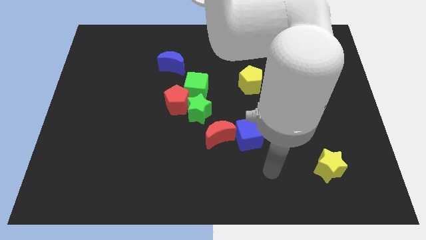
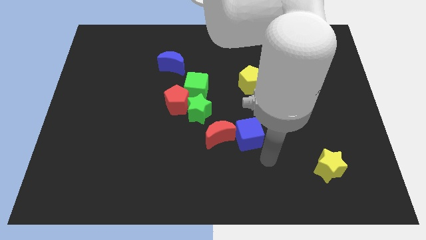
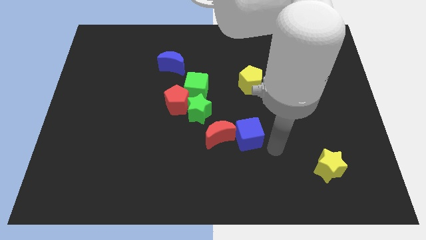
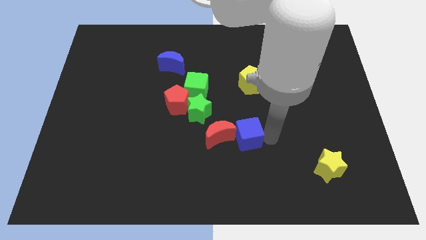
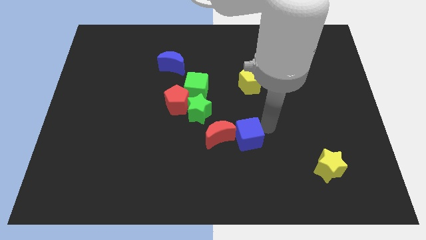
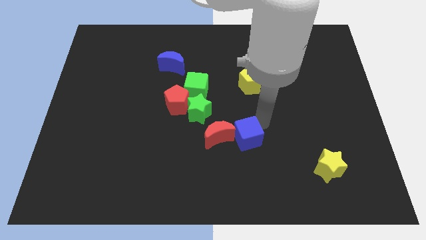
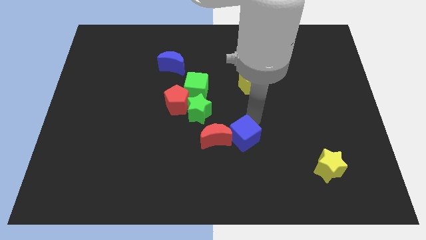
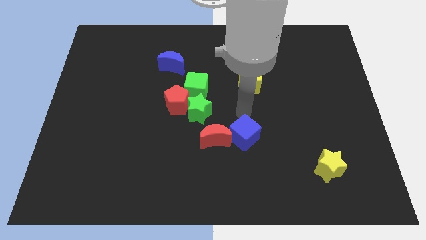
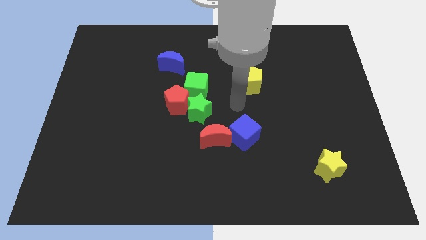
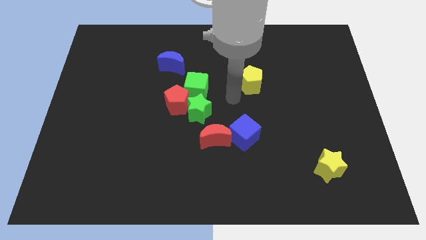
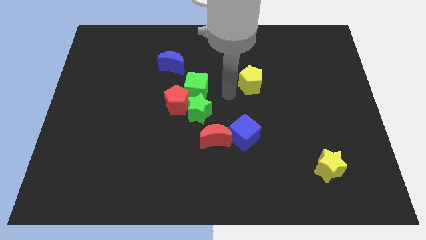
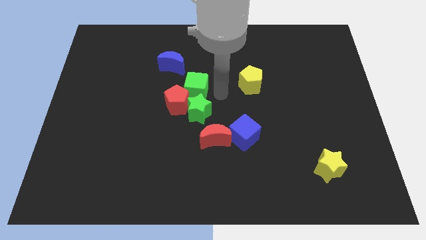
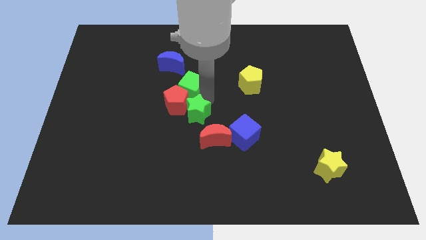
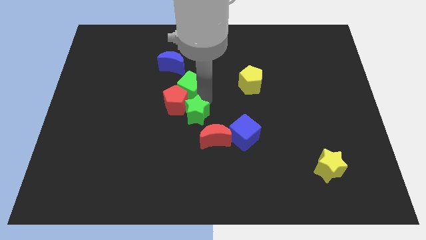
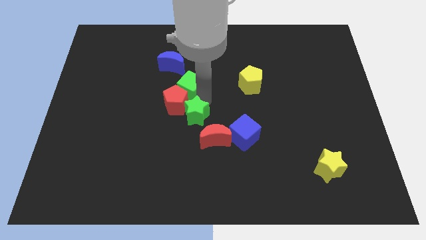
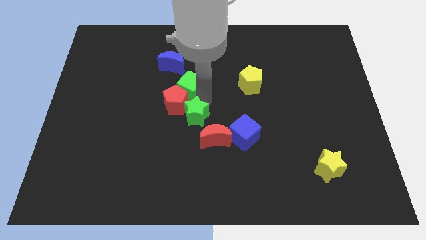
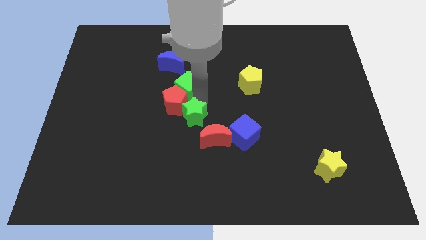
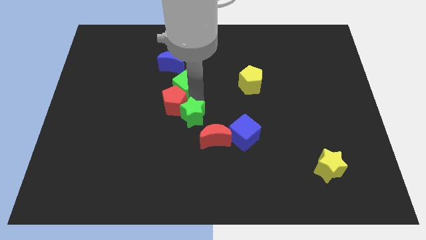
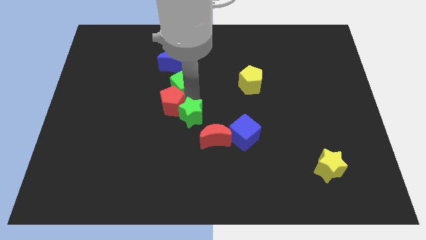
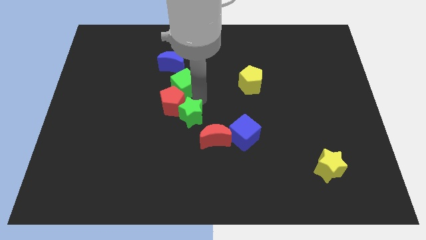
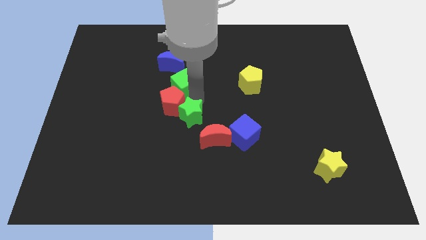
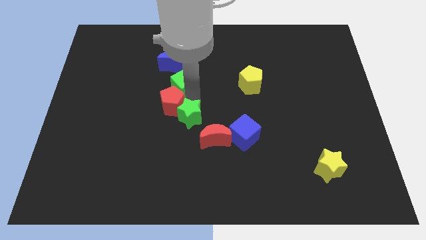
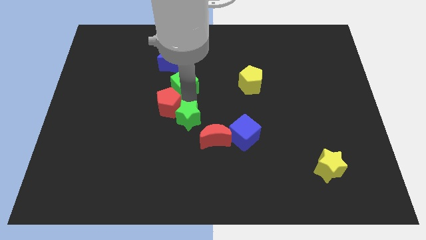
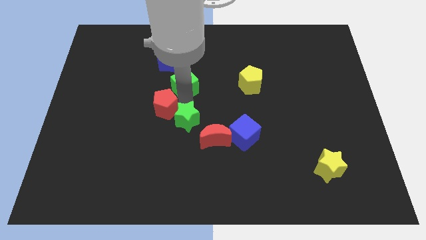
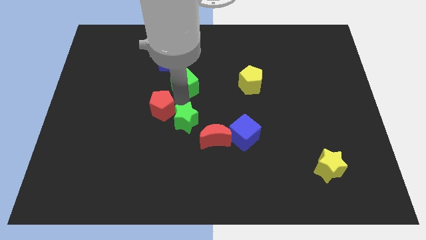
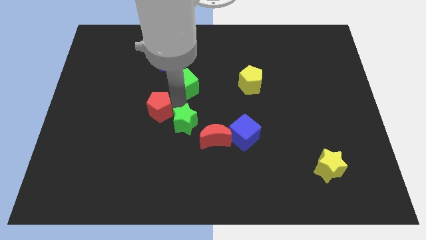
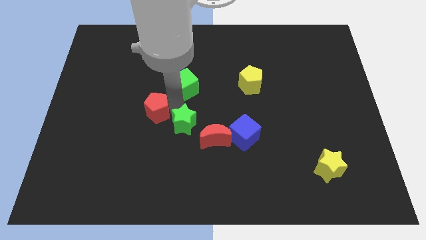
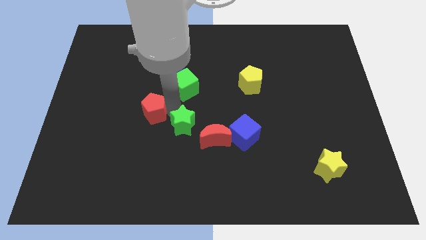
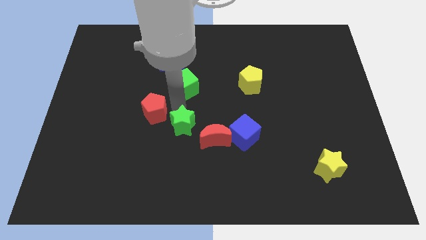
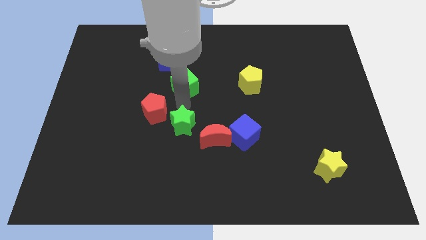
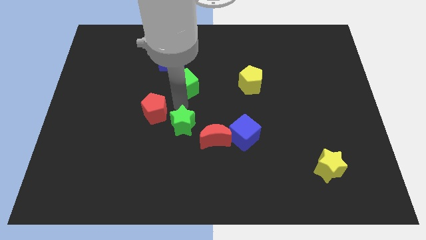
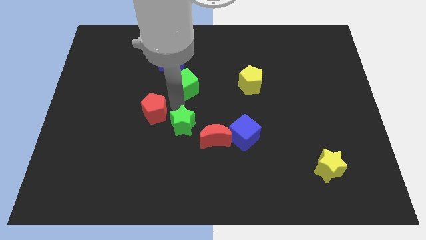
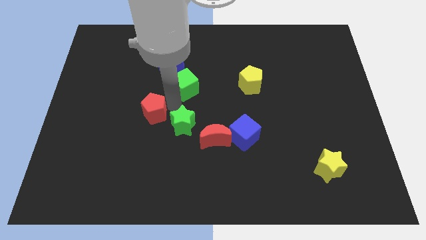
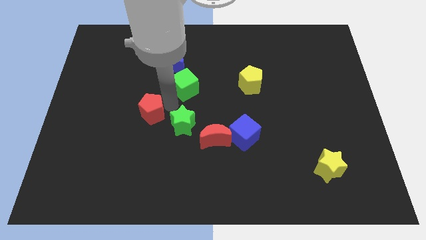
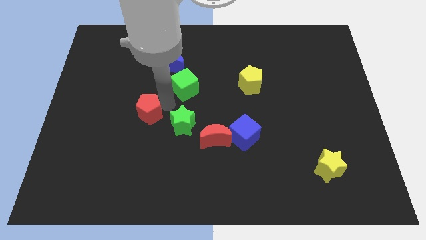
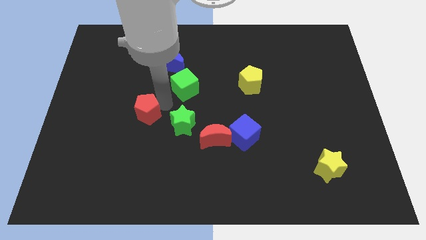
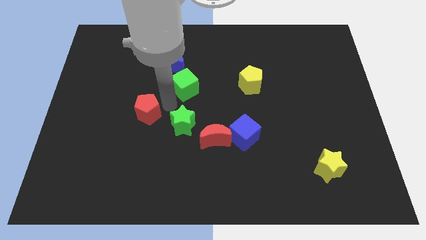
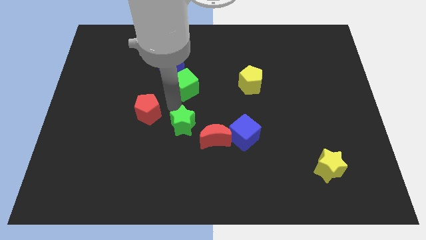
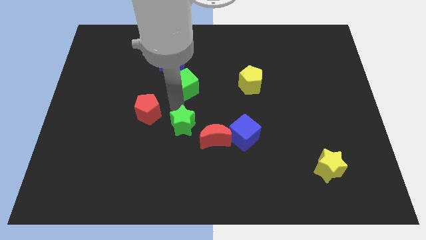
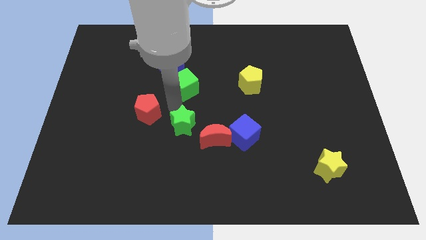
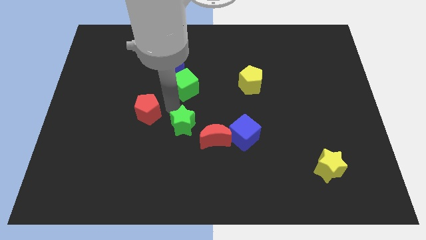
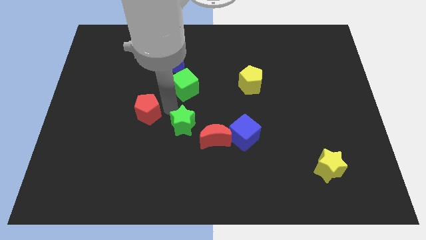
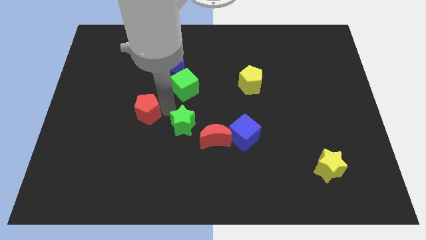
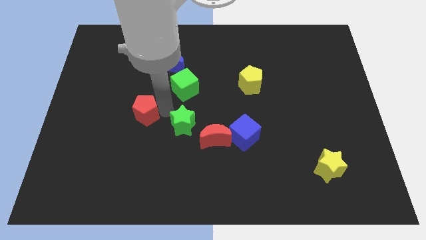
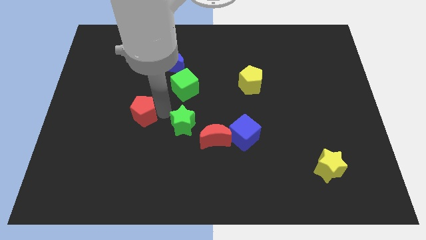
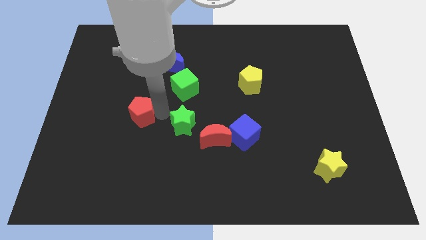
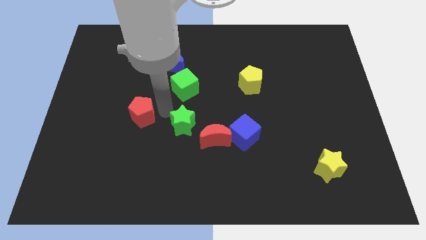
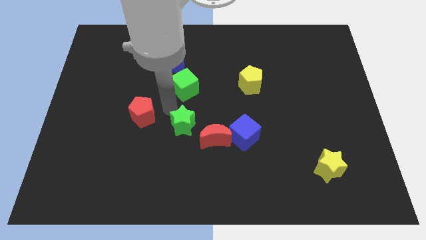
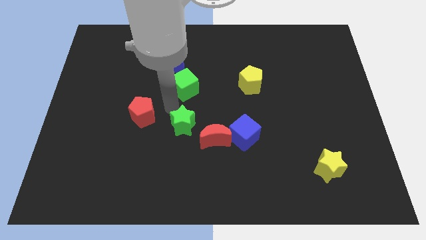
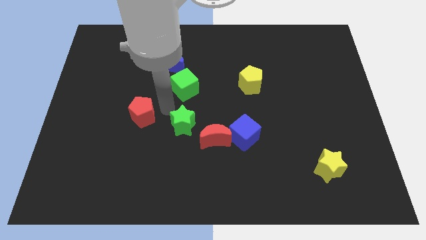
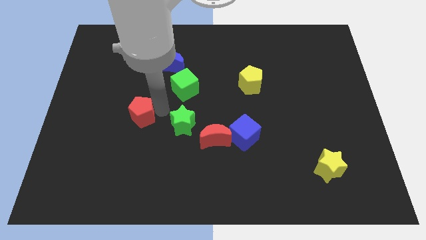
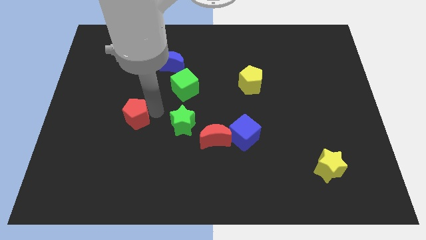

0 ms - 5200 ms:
separate the red pentagon from the green star and green cube

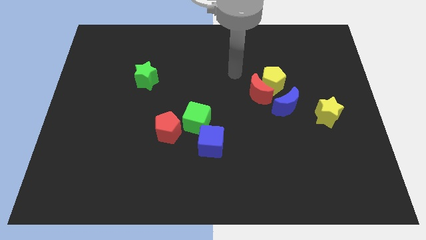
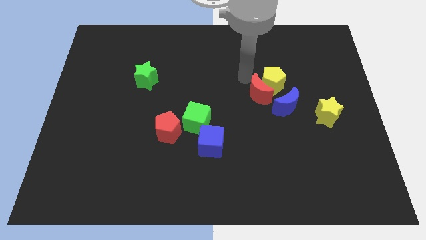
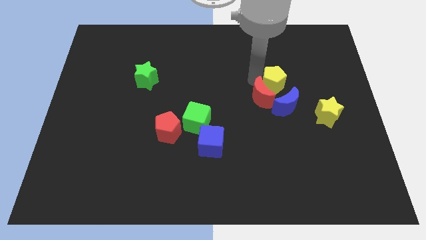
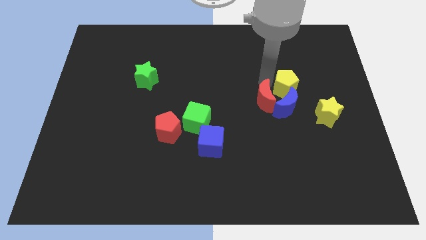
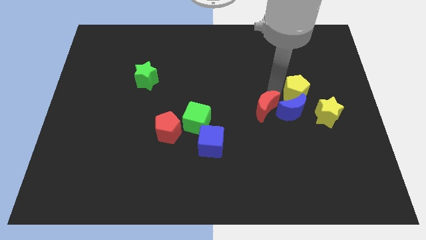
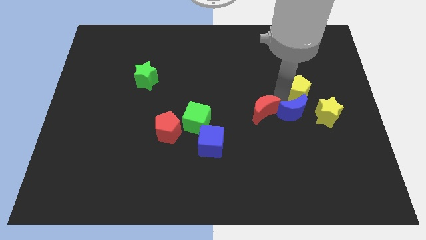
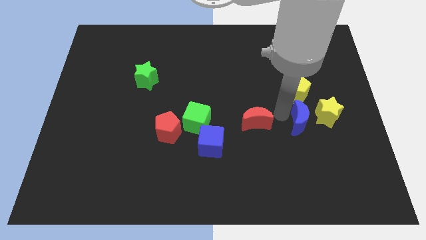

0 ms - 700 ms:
separate the red moon from the yellow pentagon and blue moon

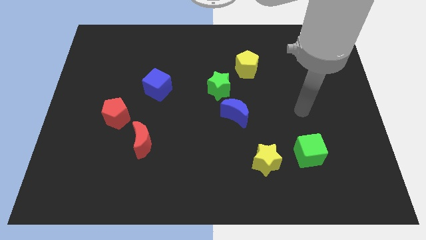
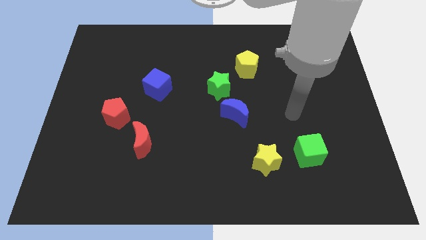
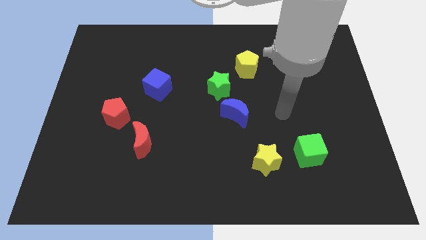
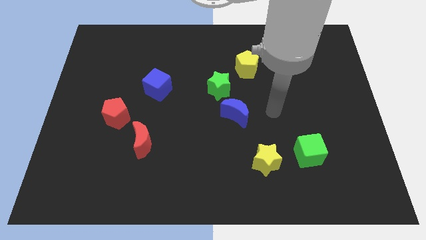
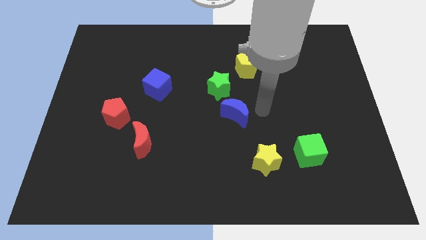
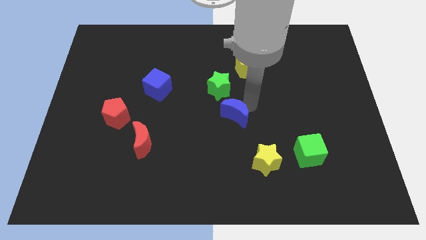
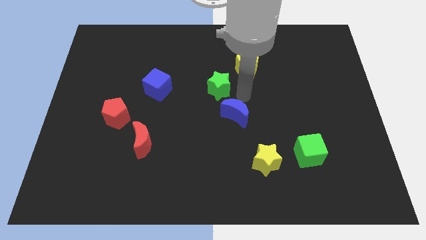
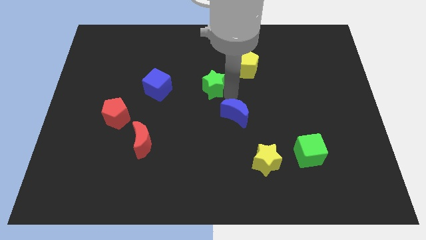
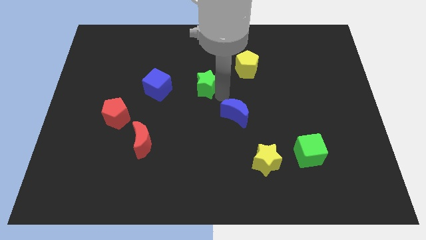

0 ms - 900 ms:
separate the blue moon from the green star

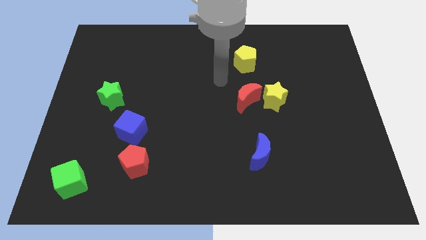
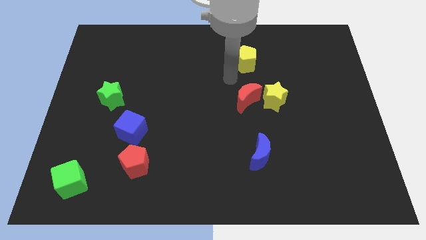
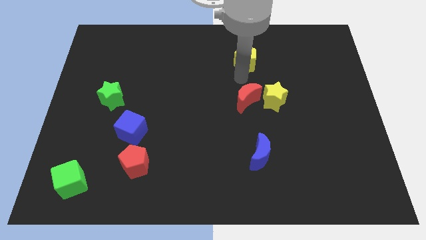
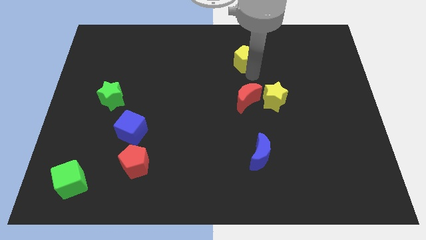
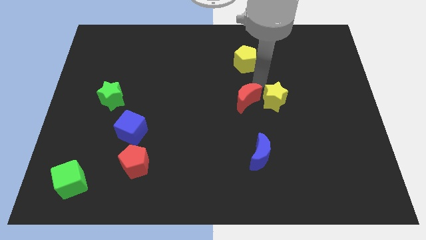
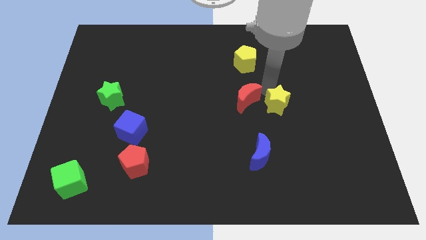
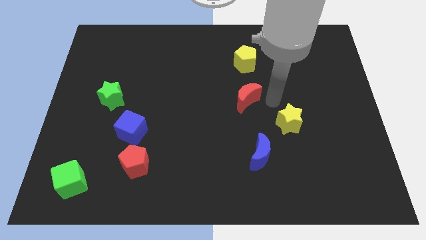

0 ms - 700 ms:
pull the red moon apart from the yellow star

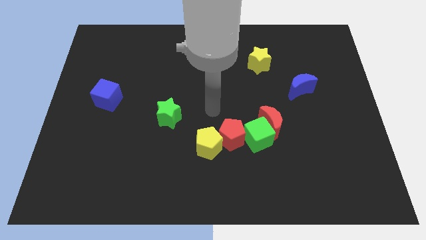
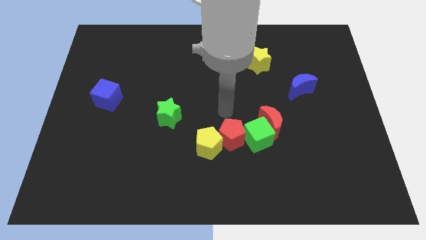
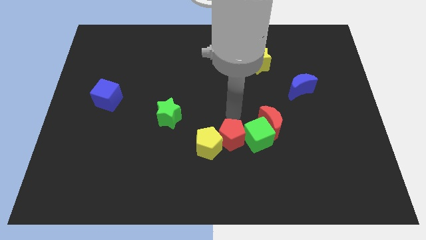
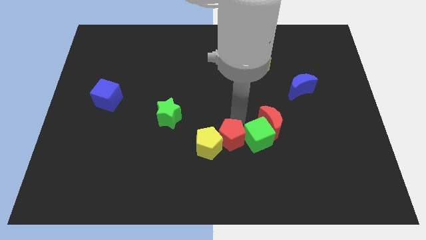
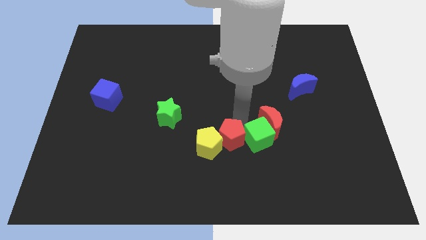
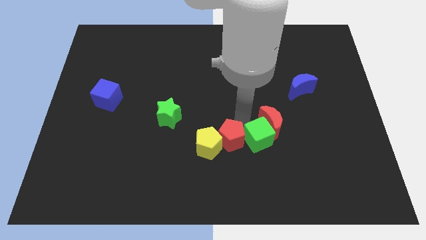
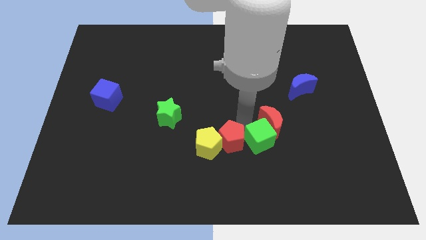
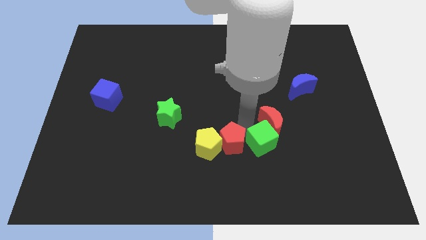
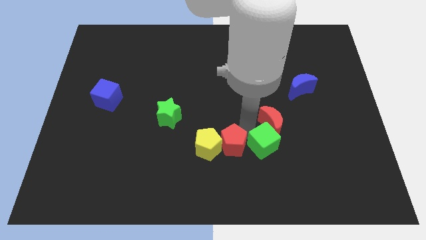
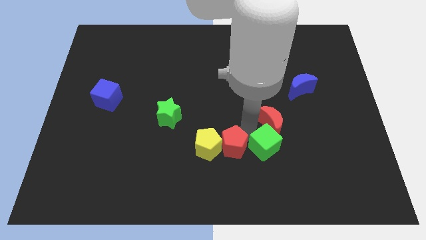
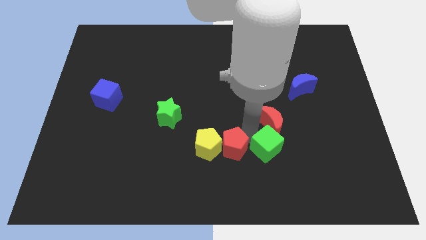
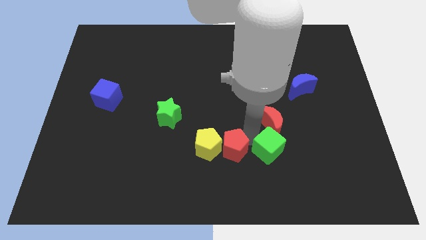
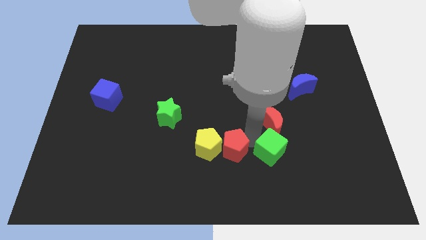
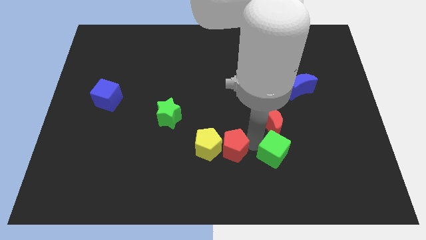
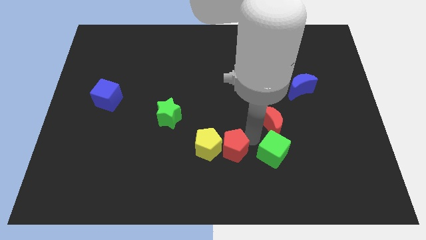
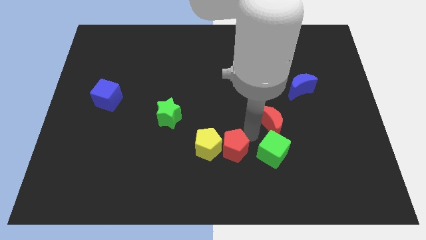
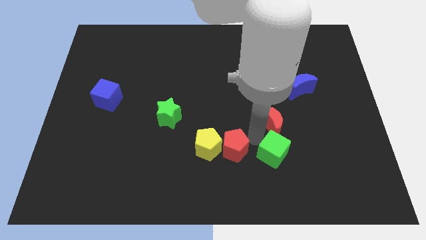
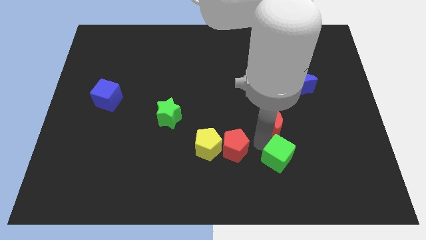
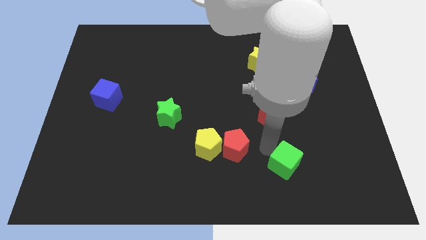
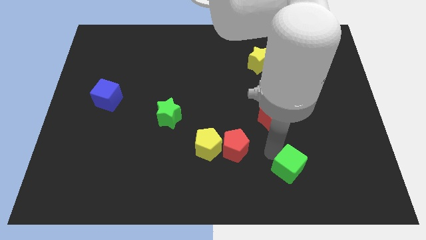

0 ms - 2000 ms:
move the green cube away from the red moon and red pentagon
